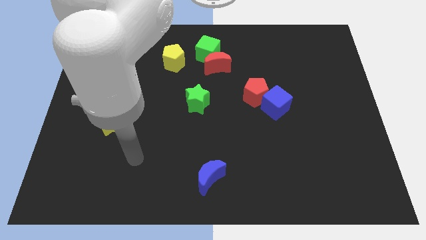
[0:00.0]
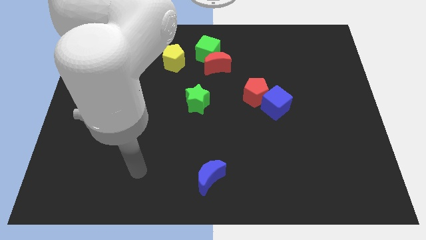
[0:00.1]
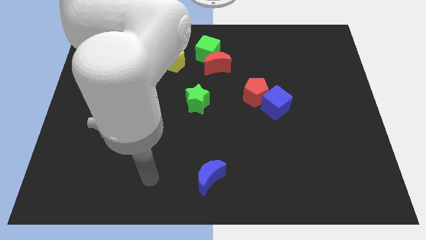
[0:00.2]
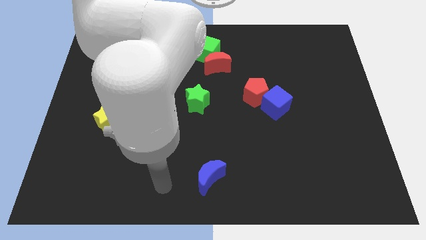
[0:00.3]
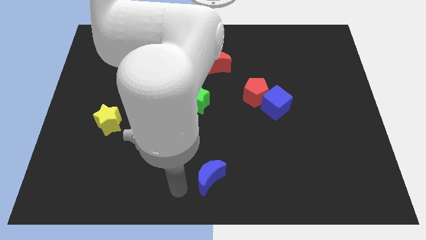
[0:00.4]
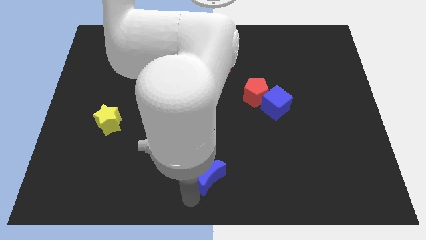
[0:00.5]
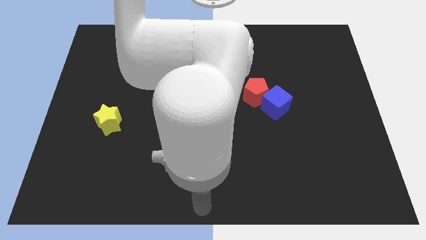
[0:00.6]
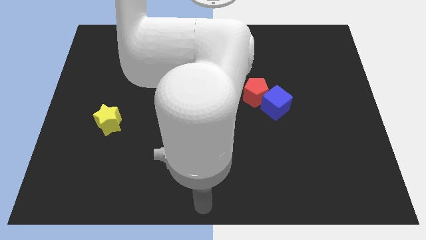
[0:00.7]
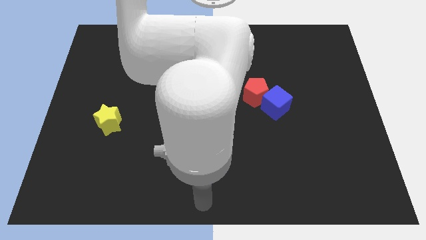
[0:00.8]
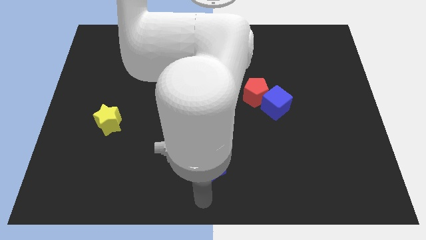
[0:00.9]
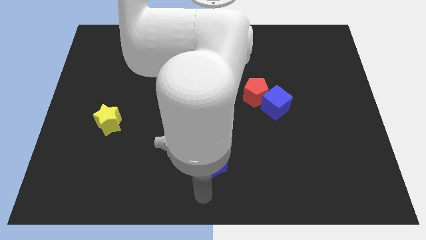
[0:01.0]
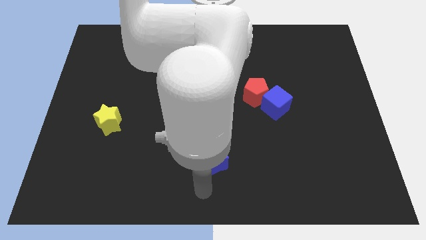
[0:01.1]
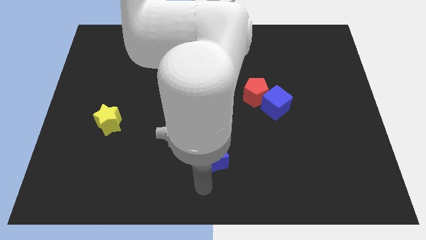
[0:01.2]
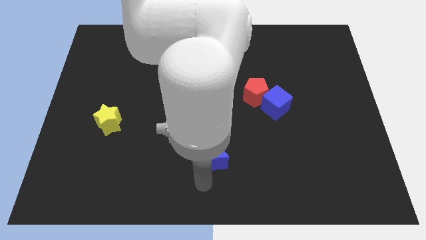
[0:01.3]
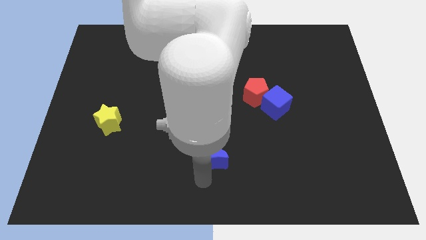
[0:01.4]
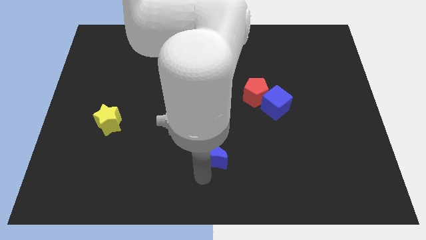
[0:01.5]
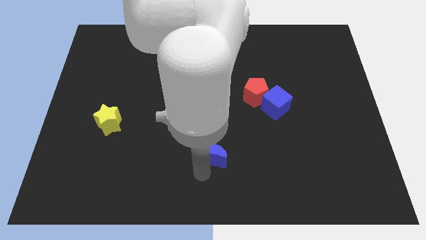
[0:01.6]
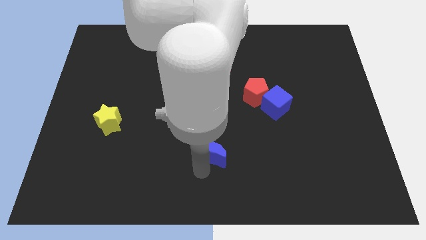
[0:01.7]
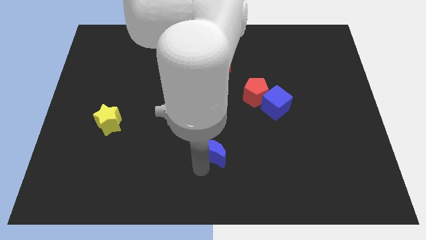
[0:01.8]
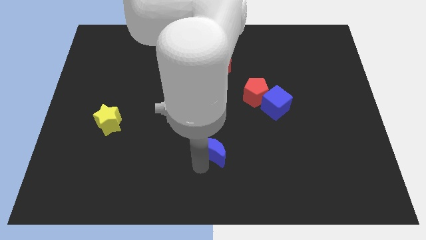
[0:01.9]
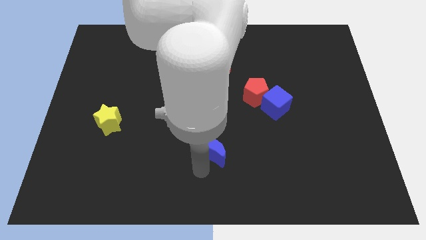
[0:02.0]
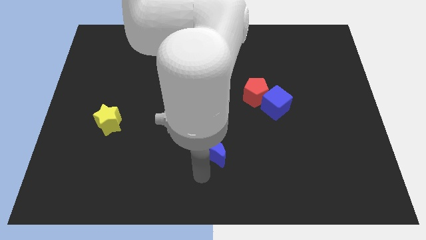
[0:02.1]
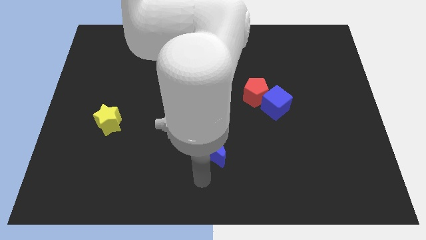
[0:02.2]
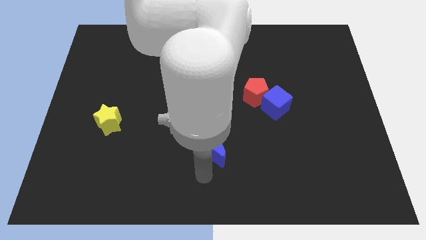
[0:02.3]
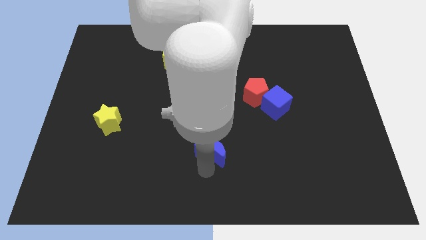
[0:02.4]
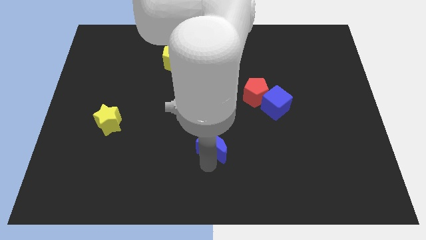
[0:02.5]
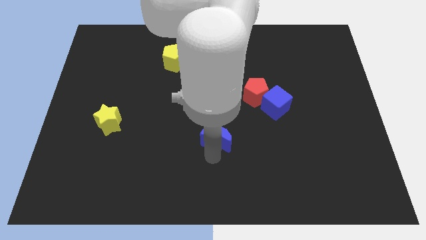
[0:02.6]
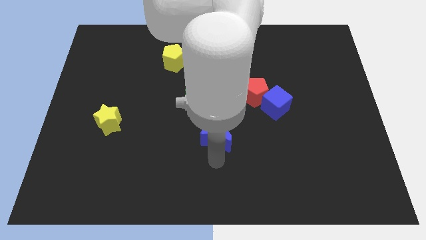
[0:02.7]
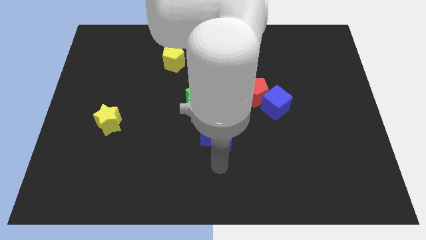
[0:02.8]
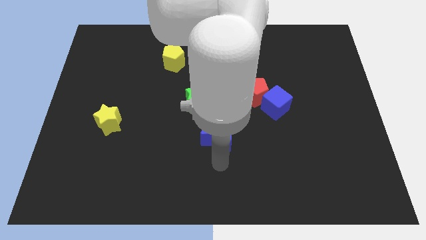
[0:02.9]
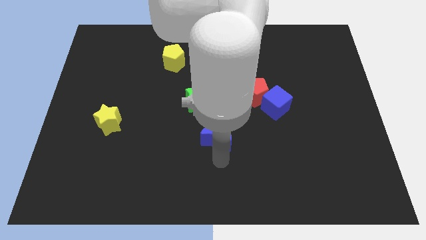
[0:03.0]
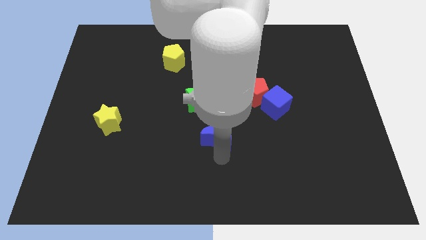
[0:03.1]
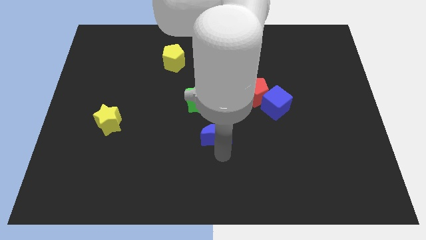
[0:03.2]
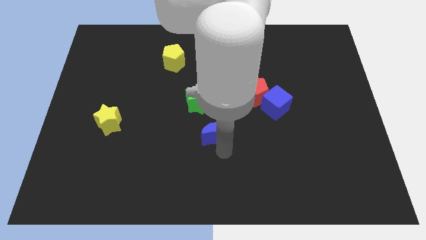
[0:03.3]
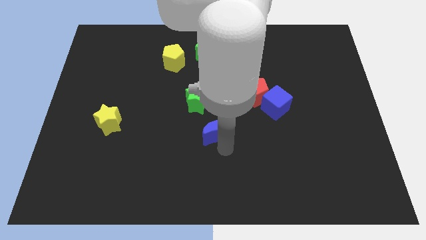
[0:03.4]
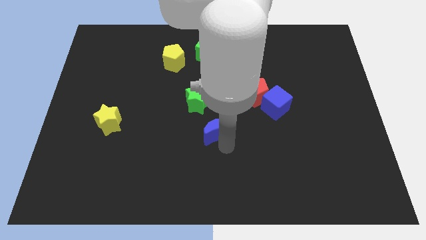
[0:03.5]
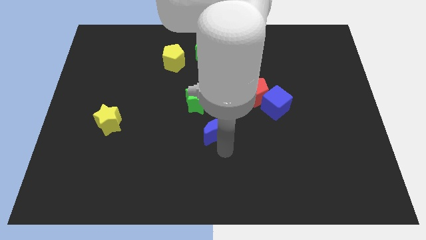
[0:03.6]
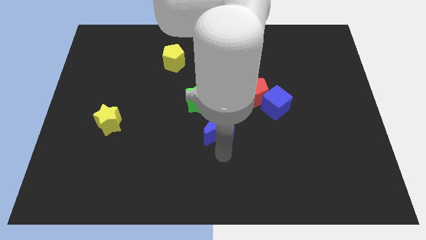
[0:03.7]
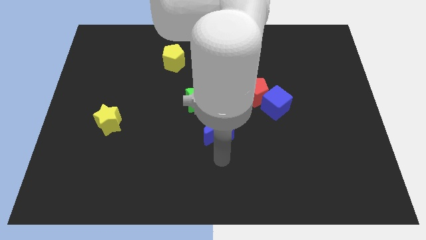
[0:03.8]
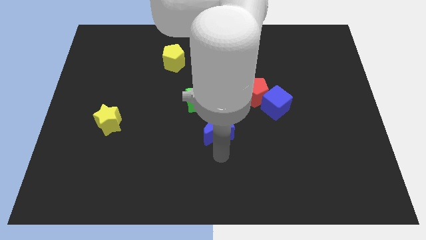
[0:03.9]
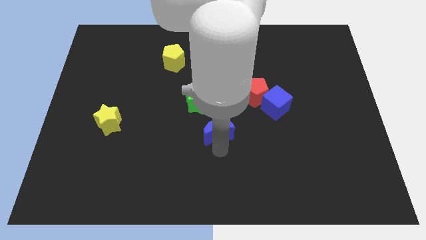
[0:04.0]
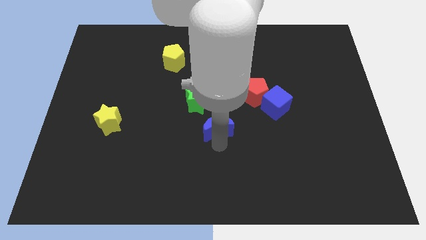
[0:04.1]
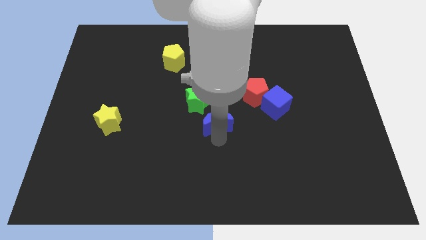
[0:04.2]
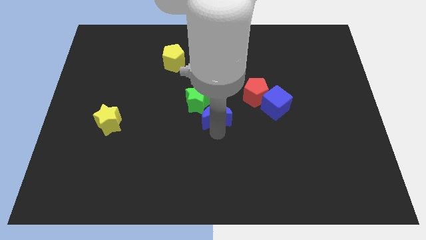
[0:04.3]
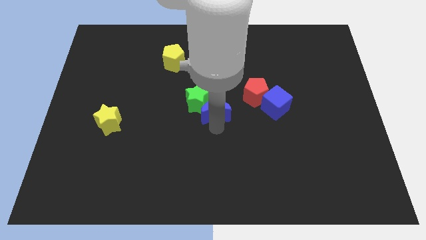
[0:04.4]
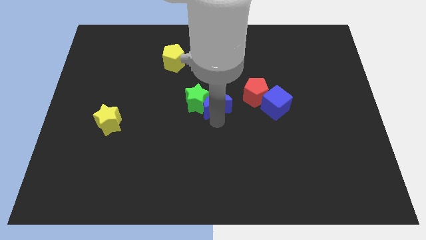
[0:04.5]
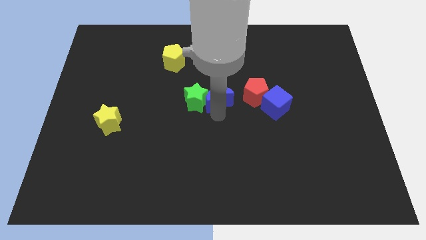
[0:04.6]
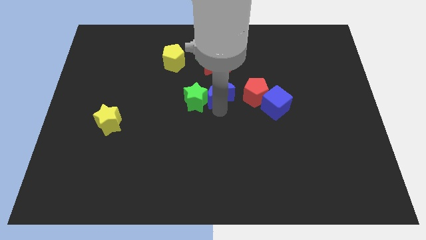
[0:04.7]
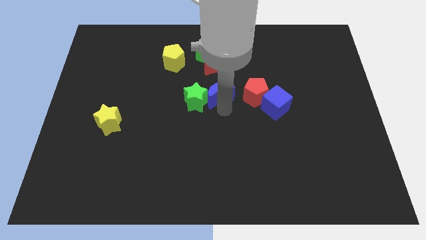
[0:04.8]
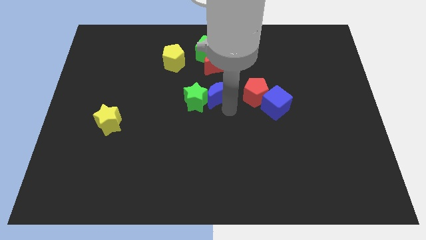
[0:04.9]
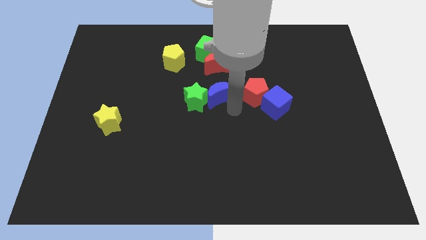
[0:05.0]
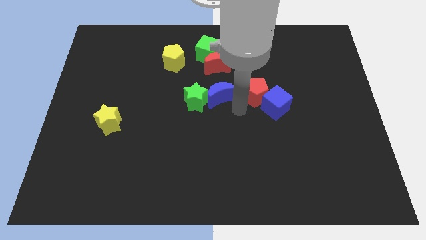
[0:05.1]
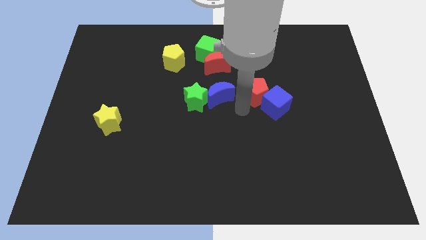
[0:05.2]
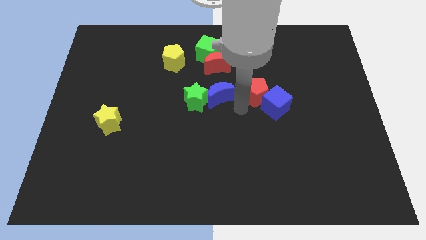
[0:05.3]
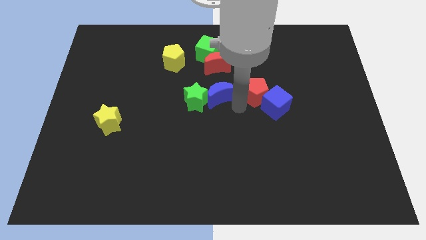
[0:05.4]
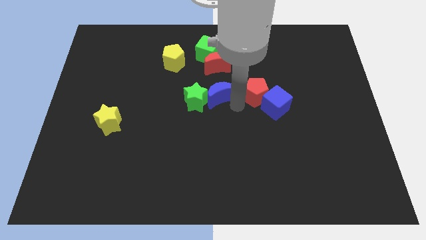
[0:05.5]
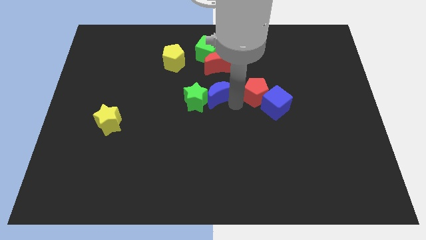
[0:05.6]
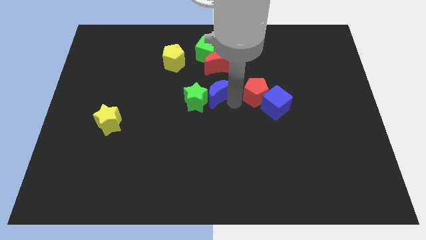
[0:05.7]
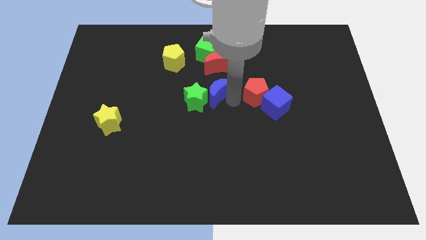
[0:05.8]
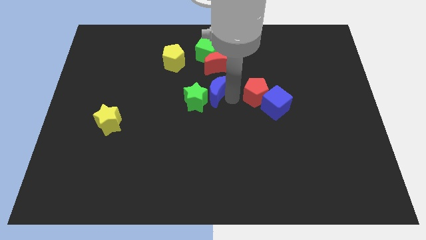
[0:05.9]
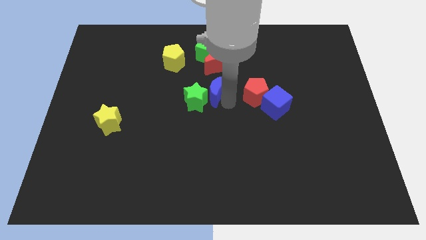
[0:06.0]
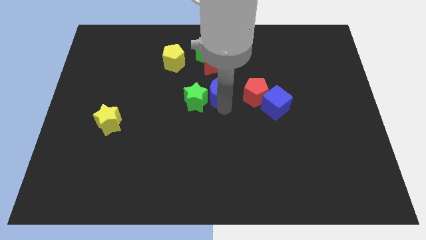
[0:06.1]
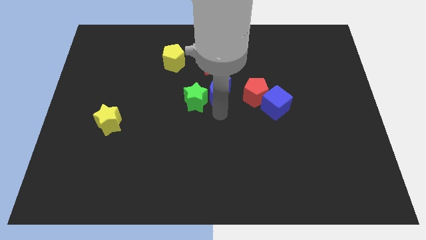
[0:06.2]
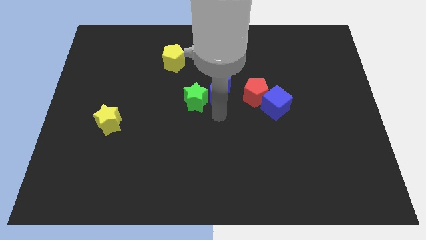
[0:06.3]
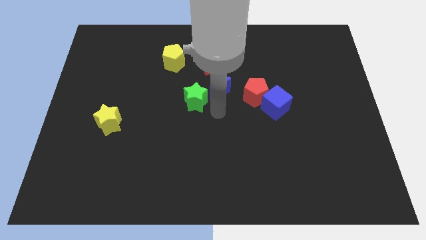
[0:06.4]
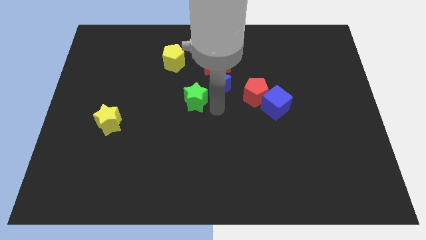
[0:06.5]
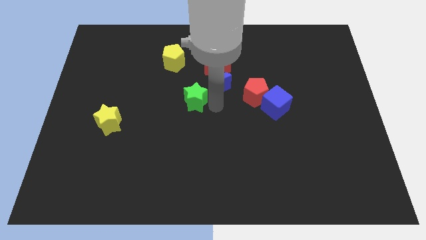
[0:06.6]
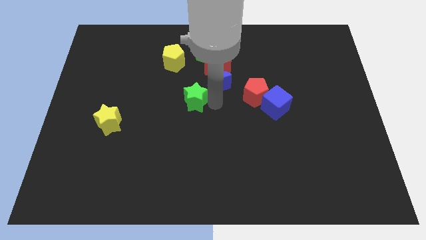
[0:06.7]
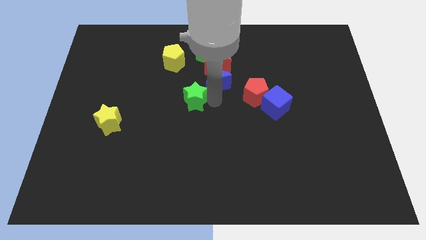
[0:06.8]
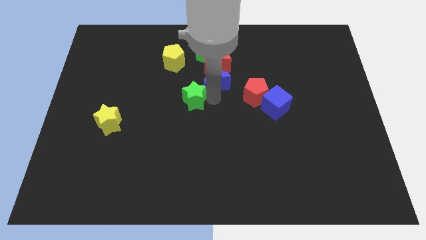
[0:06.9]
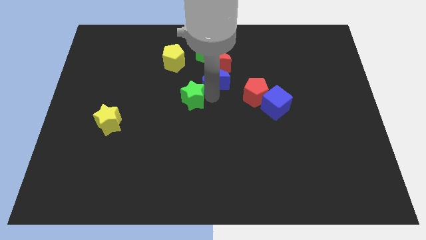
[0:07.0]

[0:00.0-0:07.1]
push the blue moon towards the red moon
